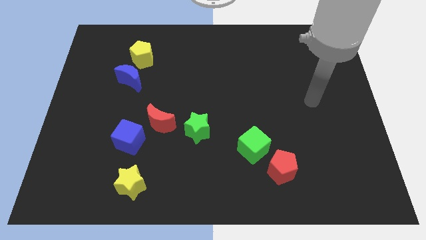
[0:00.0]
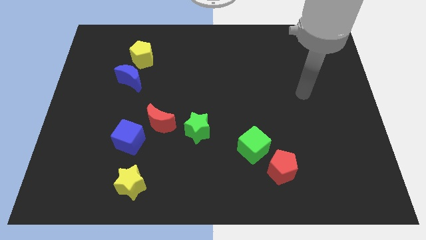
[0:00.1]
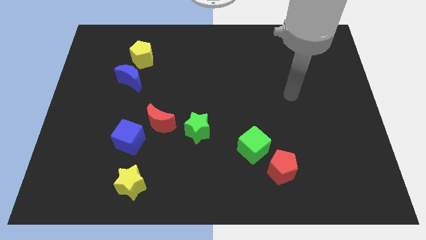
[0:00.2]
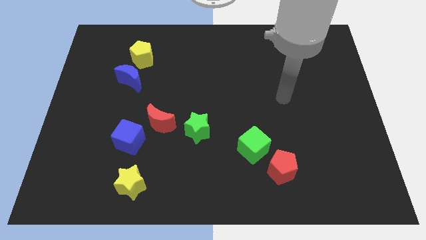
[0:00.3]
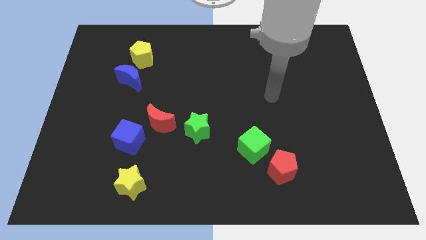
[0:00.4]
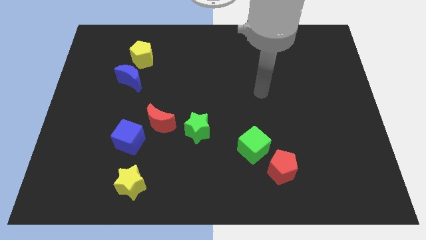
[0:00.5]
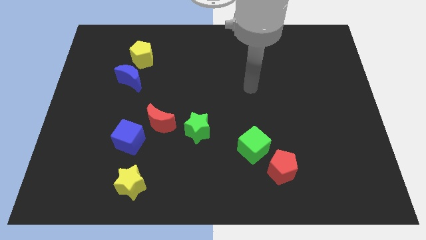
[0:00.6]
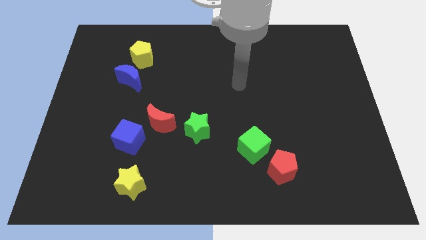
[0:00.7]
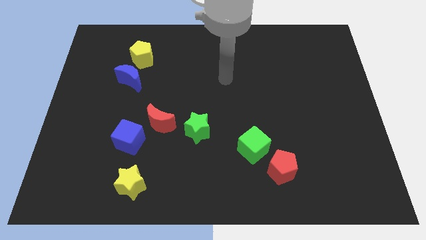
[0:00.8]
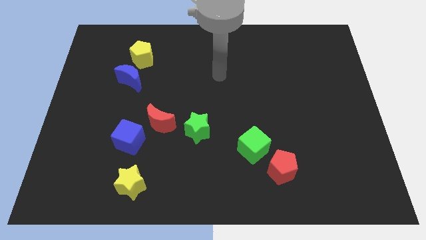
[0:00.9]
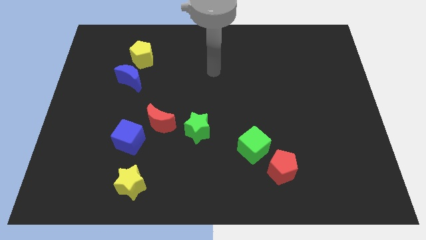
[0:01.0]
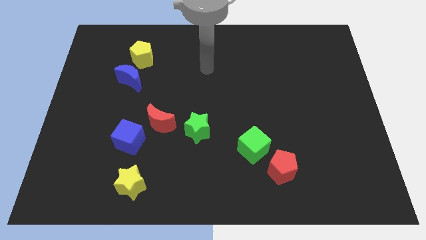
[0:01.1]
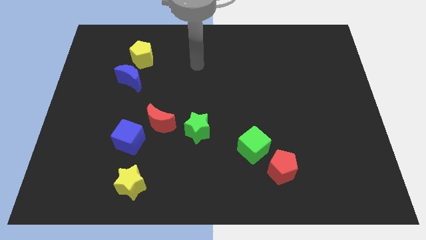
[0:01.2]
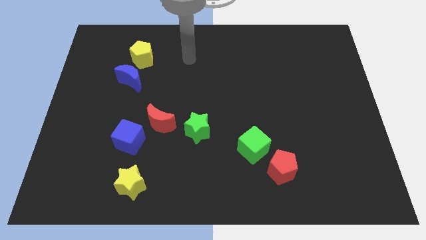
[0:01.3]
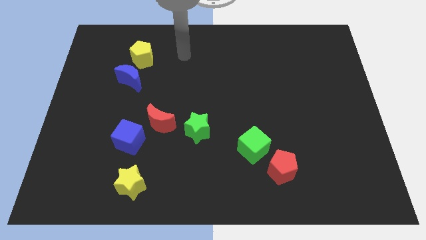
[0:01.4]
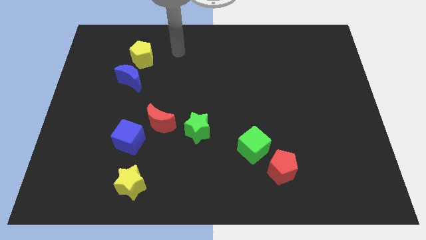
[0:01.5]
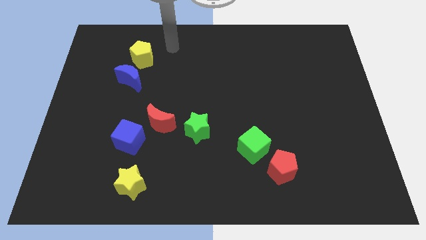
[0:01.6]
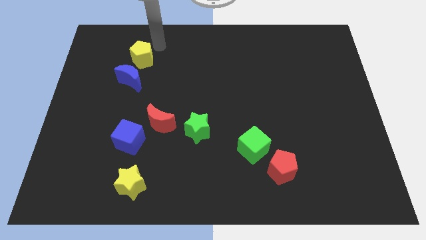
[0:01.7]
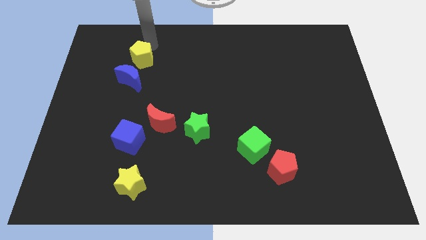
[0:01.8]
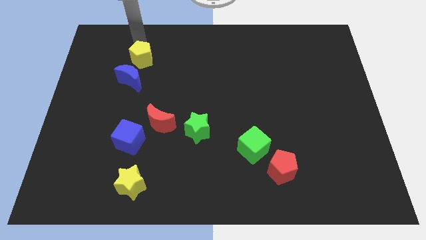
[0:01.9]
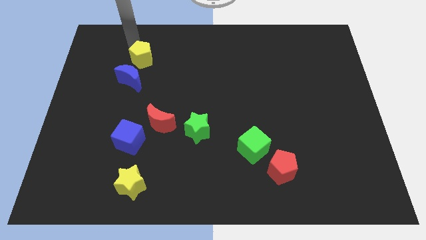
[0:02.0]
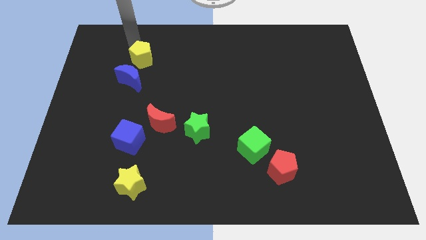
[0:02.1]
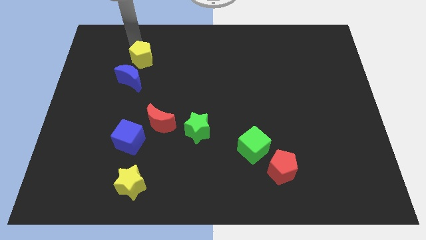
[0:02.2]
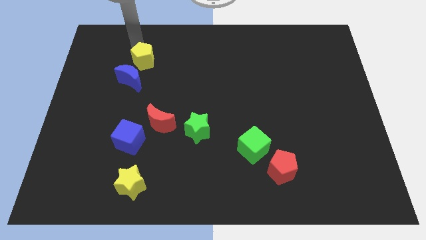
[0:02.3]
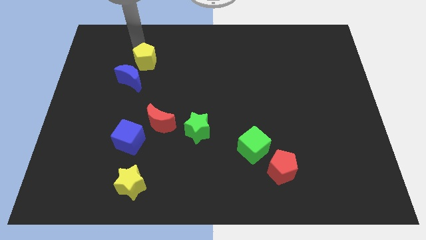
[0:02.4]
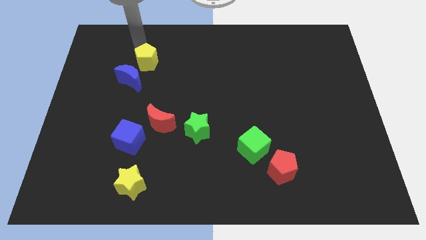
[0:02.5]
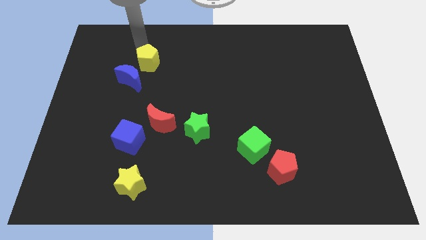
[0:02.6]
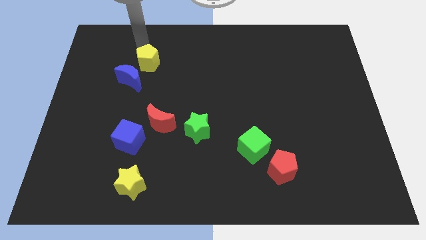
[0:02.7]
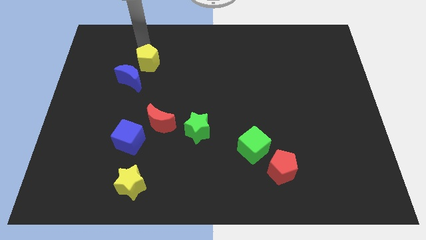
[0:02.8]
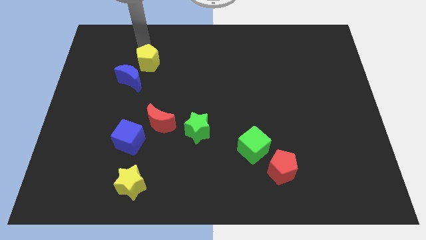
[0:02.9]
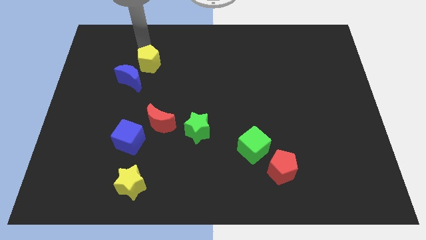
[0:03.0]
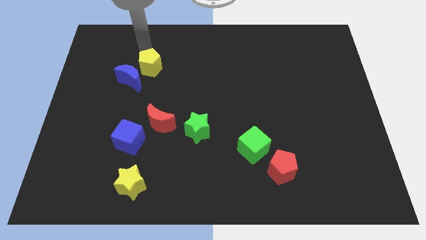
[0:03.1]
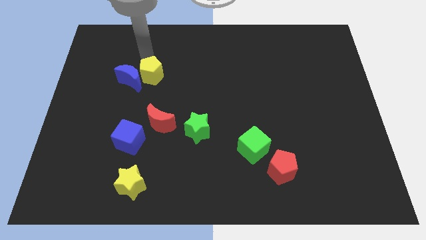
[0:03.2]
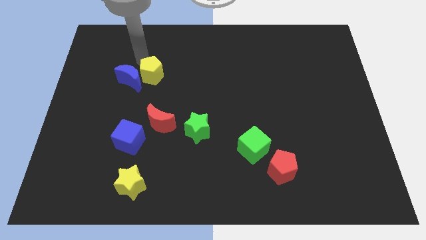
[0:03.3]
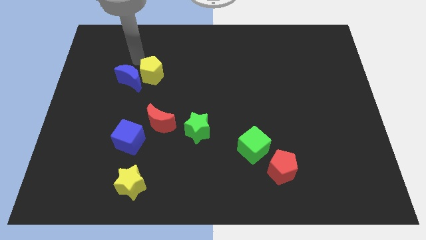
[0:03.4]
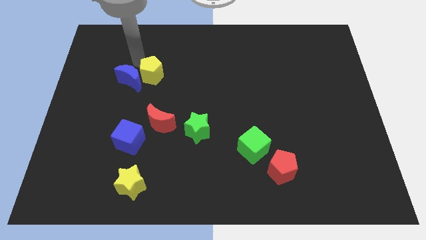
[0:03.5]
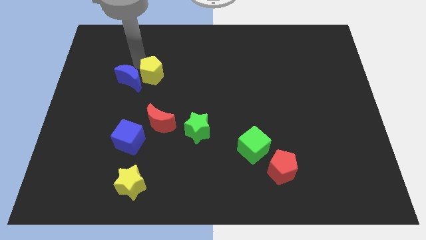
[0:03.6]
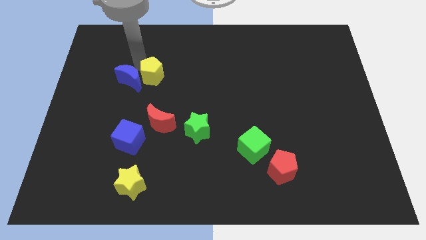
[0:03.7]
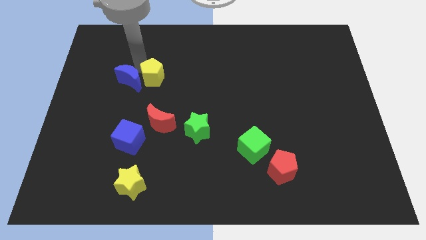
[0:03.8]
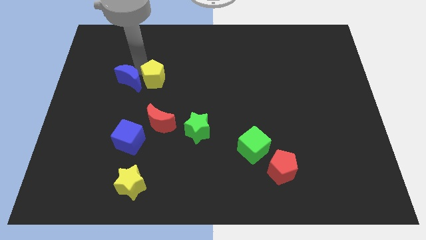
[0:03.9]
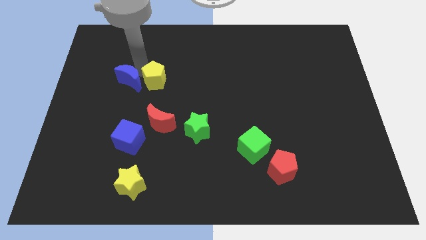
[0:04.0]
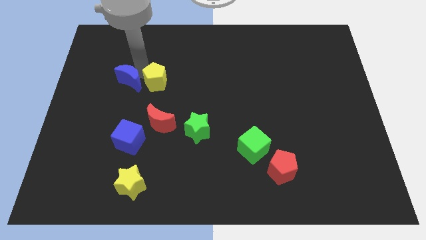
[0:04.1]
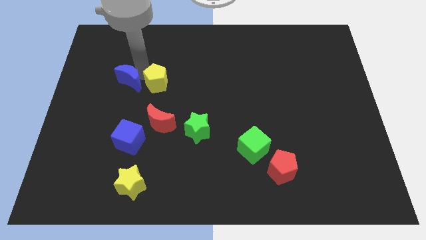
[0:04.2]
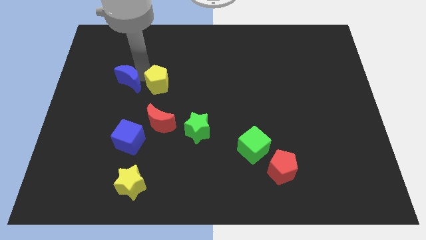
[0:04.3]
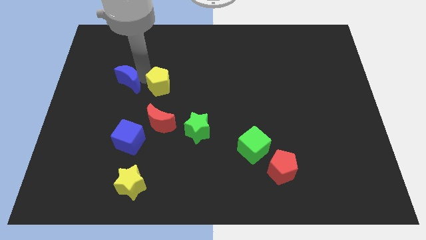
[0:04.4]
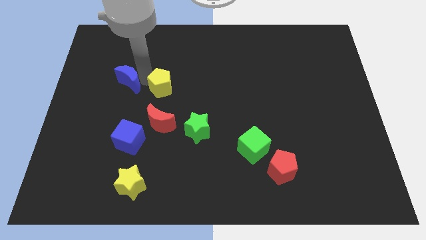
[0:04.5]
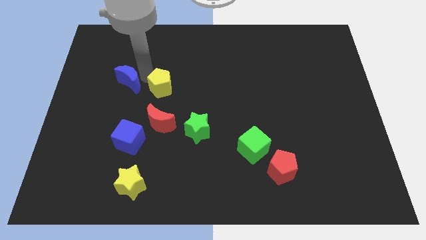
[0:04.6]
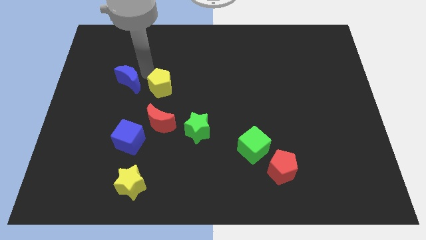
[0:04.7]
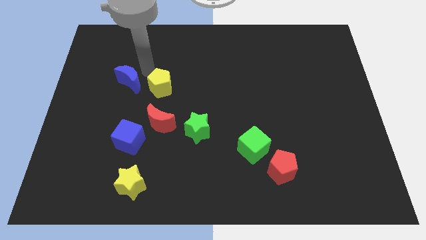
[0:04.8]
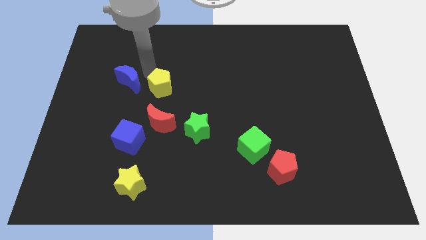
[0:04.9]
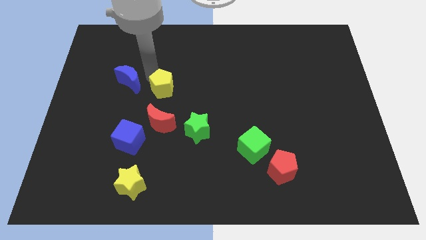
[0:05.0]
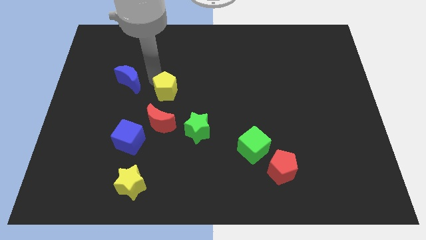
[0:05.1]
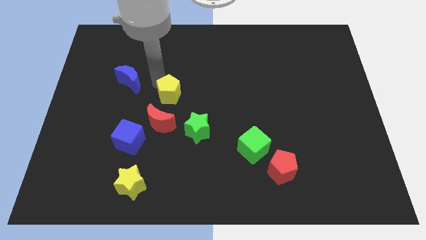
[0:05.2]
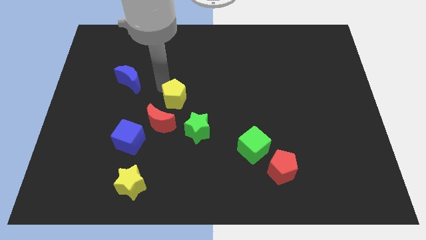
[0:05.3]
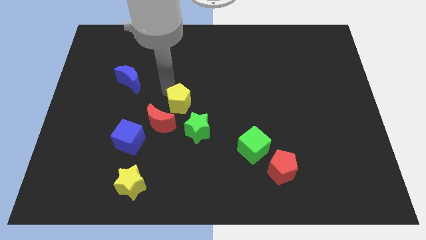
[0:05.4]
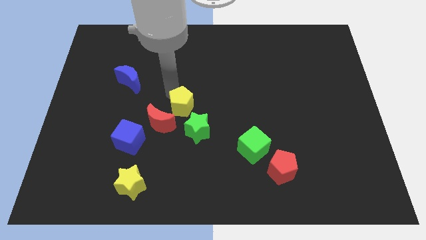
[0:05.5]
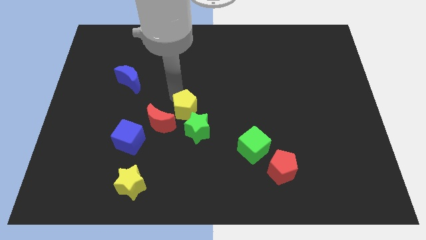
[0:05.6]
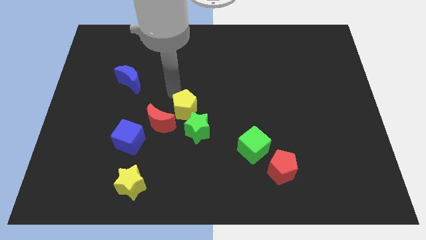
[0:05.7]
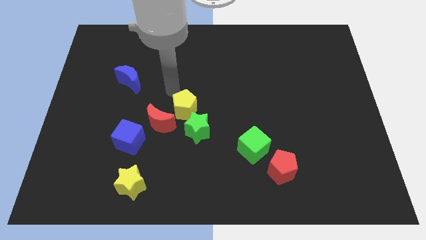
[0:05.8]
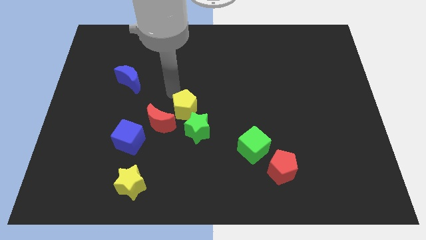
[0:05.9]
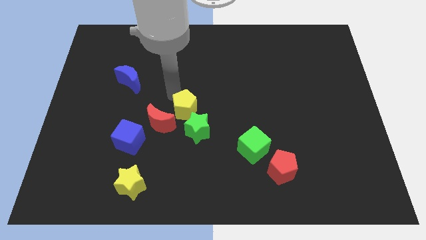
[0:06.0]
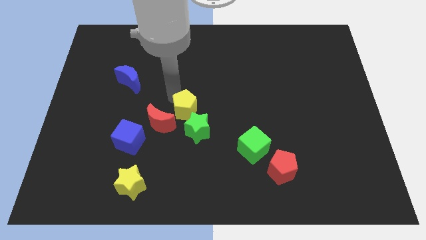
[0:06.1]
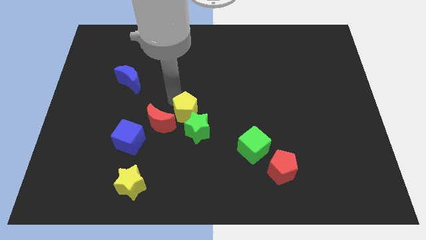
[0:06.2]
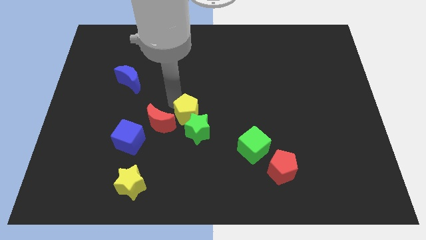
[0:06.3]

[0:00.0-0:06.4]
push the yellow pentagon to the green star

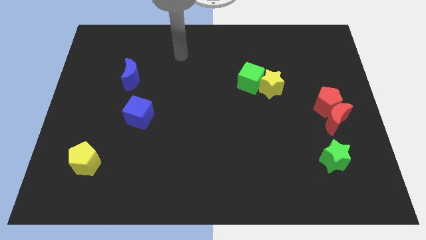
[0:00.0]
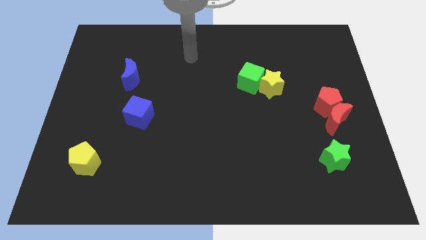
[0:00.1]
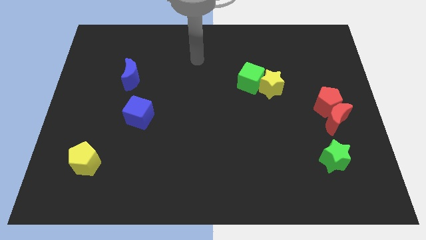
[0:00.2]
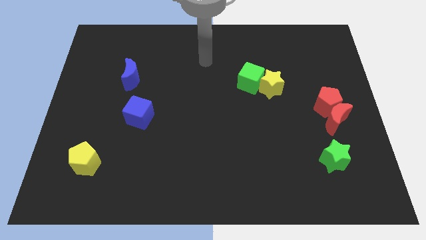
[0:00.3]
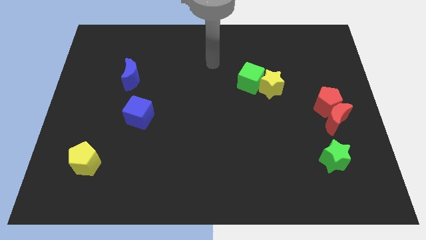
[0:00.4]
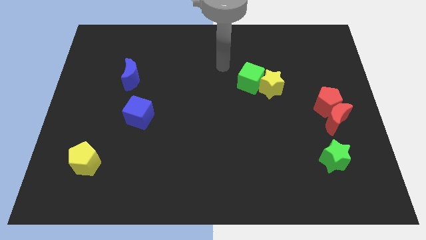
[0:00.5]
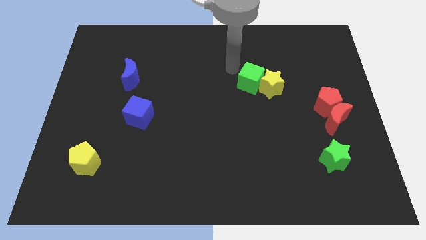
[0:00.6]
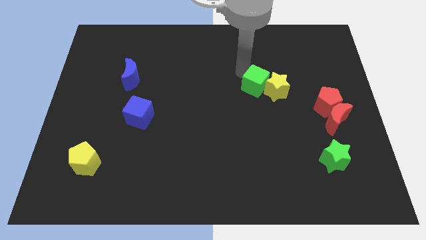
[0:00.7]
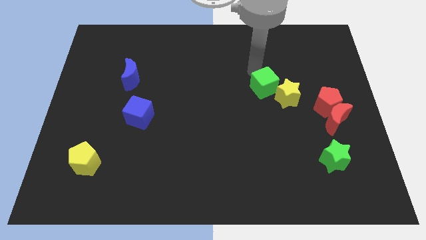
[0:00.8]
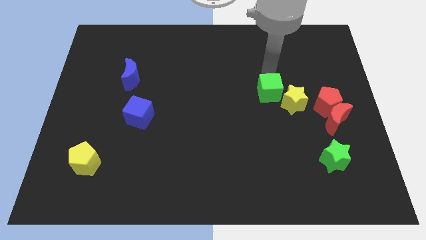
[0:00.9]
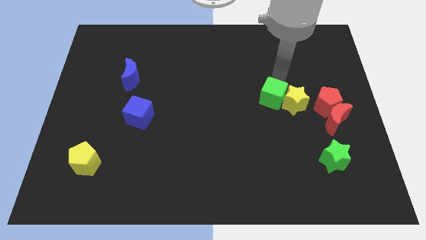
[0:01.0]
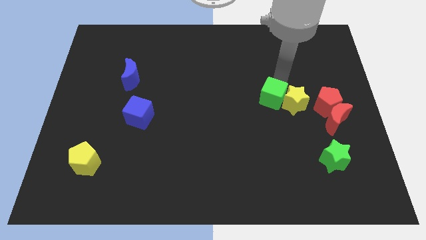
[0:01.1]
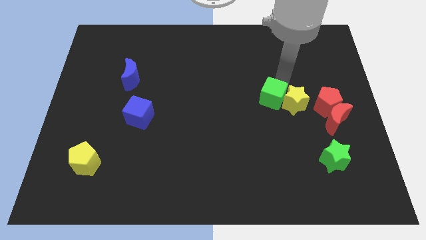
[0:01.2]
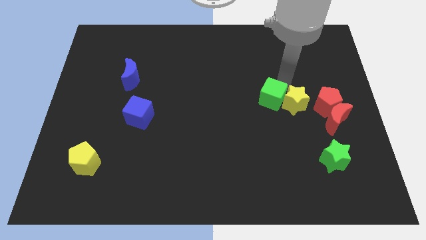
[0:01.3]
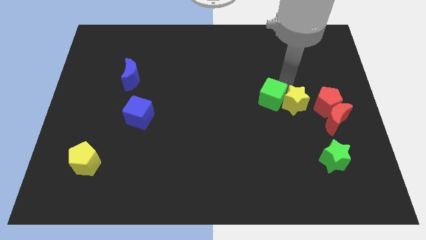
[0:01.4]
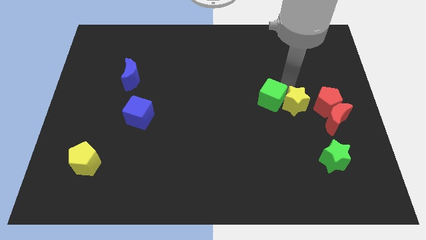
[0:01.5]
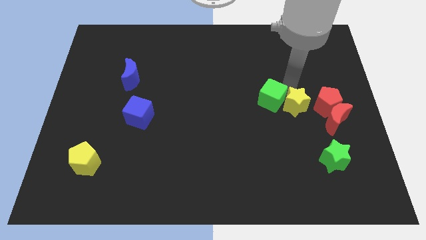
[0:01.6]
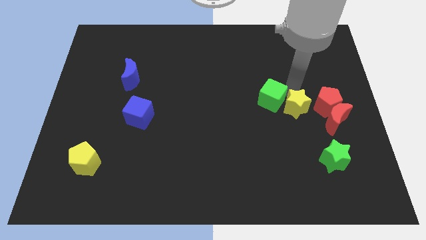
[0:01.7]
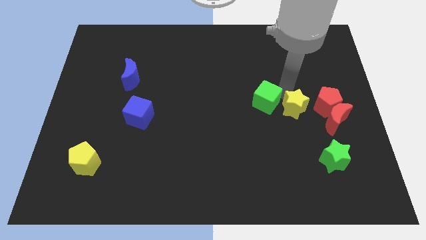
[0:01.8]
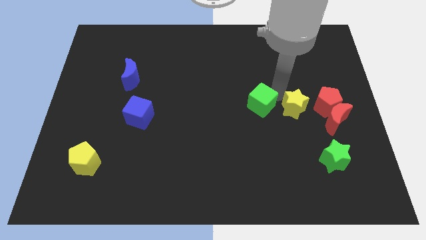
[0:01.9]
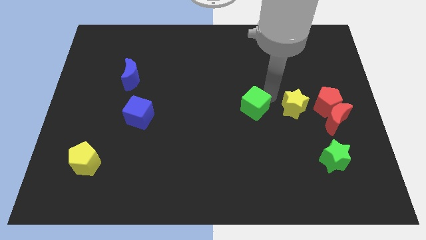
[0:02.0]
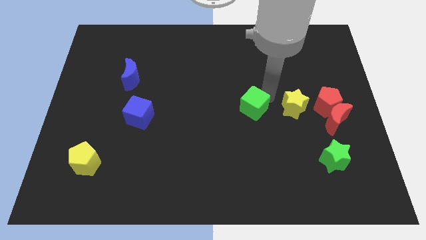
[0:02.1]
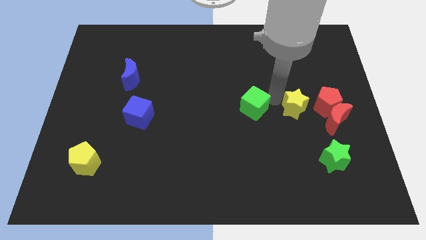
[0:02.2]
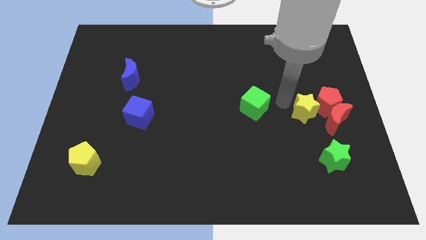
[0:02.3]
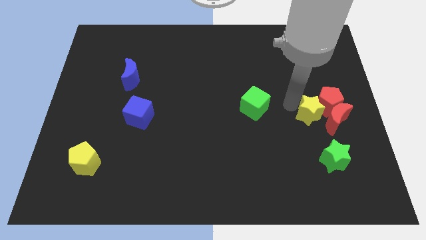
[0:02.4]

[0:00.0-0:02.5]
put the yellow star close to the red moon
